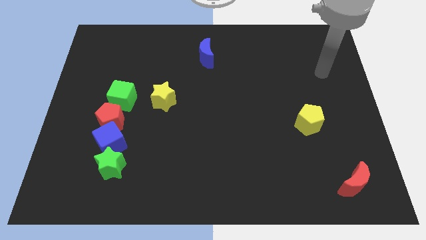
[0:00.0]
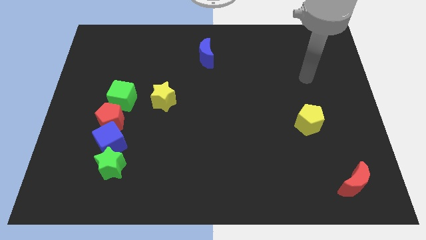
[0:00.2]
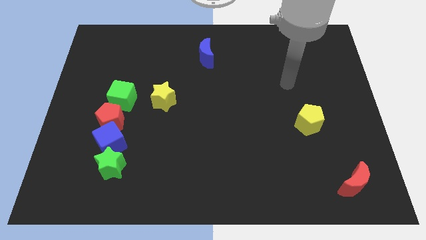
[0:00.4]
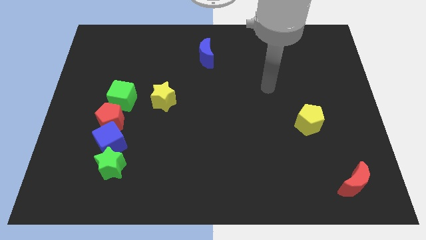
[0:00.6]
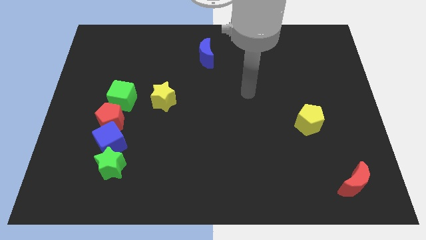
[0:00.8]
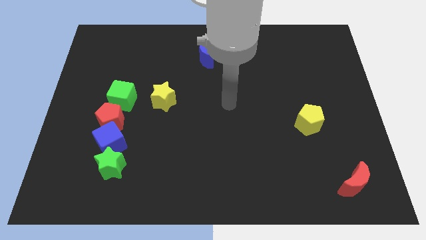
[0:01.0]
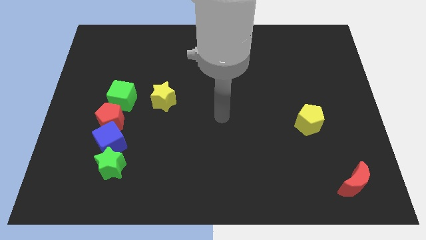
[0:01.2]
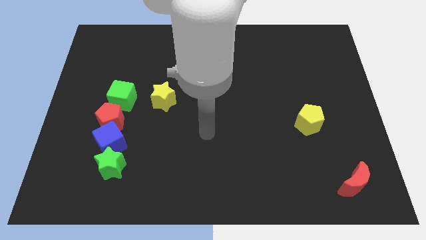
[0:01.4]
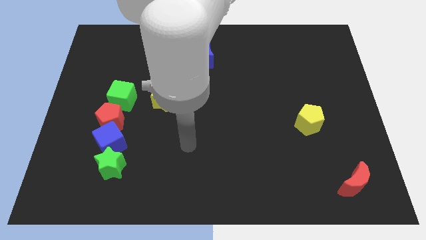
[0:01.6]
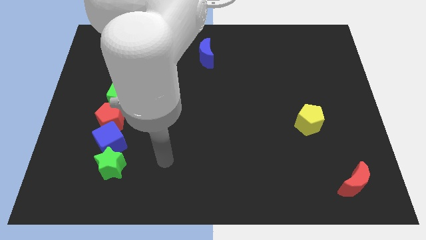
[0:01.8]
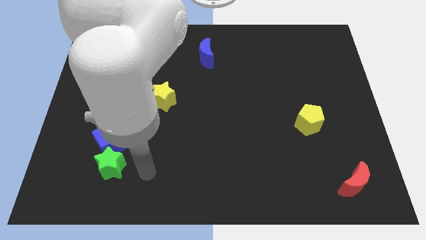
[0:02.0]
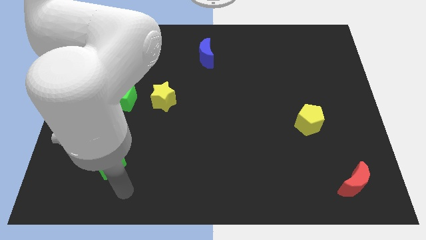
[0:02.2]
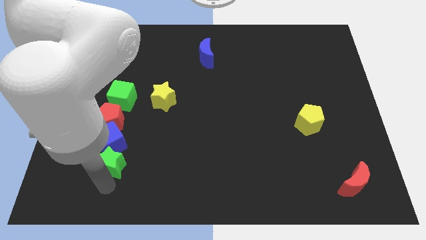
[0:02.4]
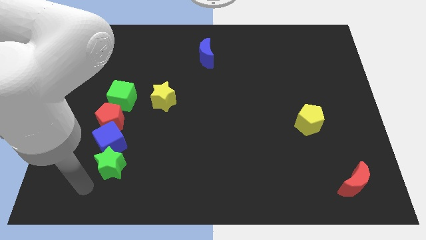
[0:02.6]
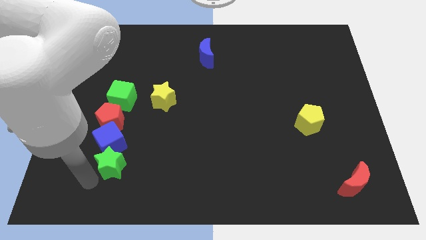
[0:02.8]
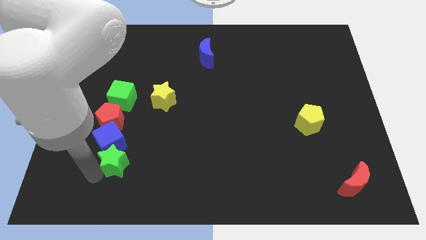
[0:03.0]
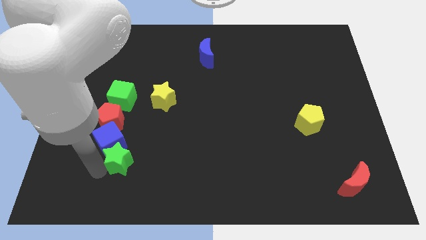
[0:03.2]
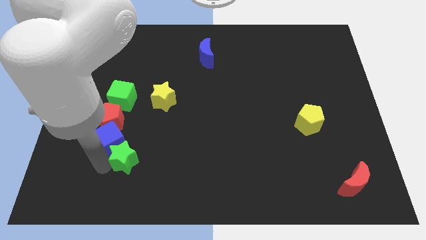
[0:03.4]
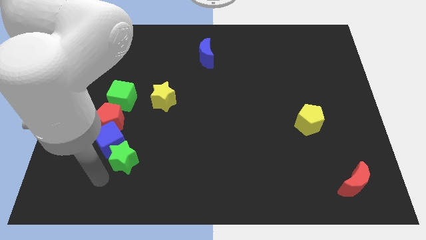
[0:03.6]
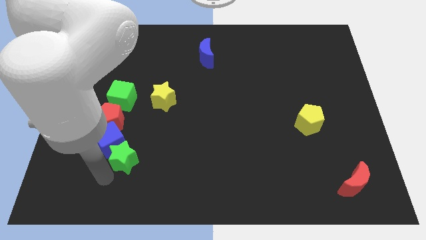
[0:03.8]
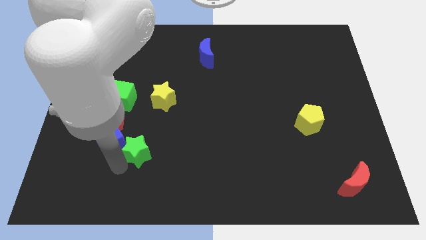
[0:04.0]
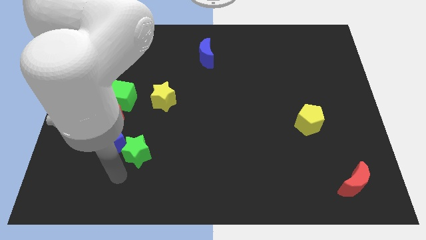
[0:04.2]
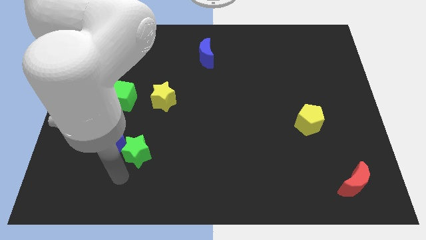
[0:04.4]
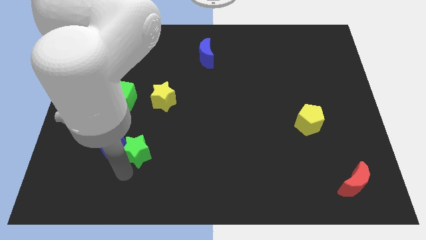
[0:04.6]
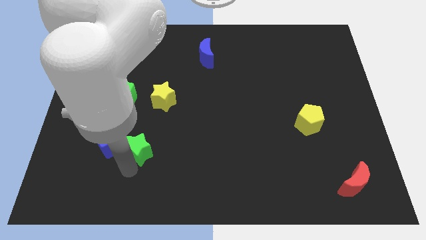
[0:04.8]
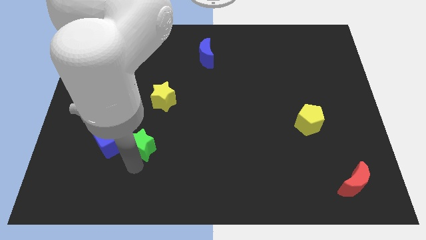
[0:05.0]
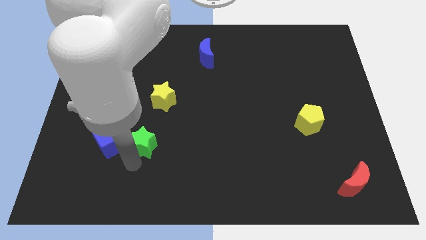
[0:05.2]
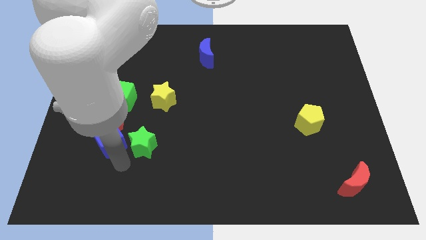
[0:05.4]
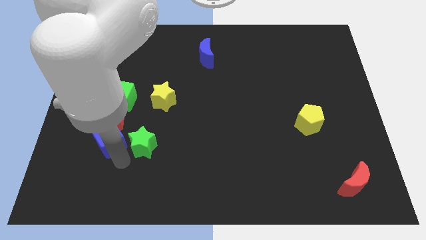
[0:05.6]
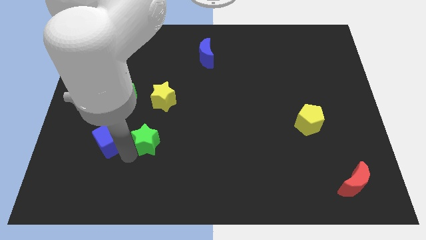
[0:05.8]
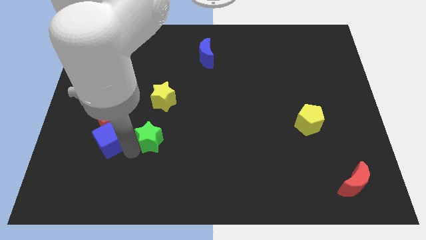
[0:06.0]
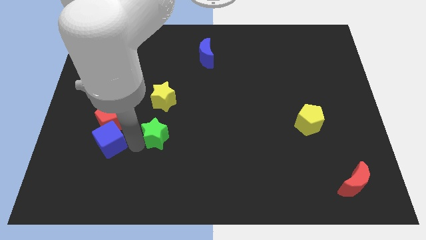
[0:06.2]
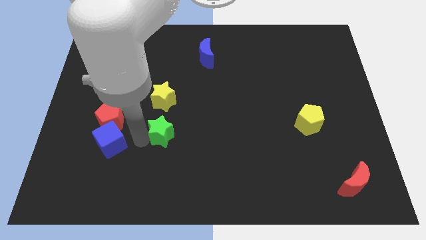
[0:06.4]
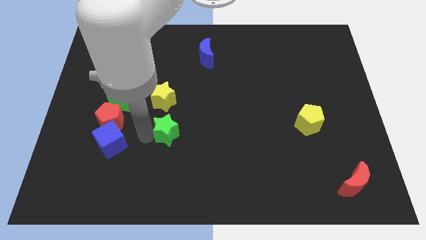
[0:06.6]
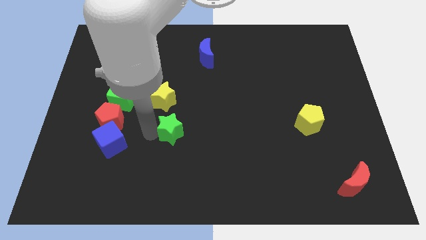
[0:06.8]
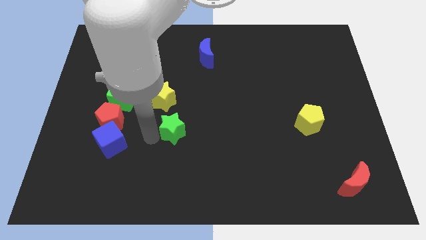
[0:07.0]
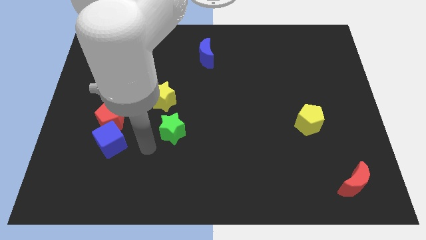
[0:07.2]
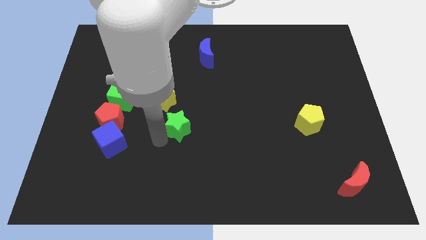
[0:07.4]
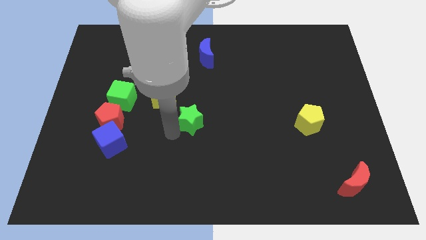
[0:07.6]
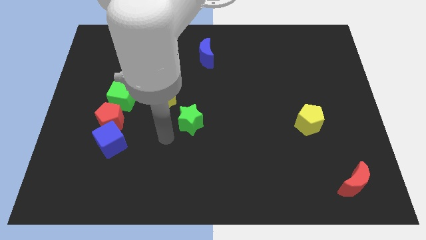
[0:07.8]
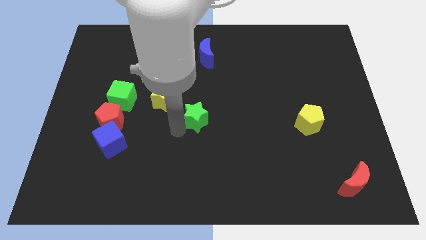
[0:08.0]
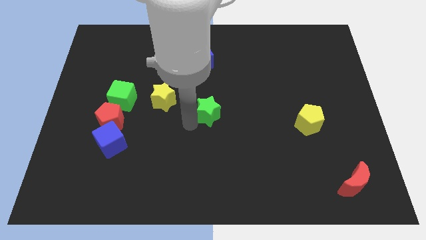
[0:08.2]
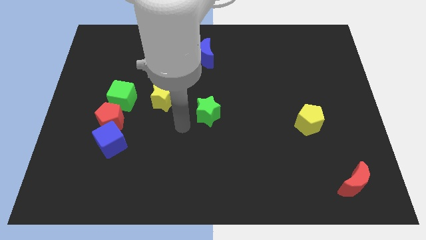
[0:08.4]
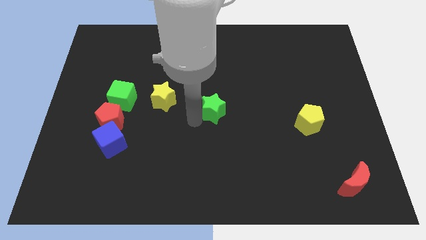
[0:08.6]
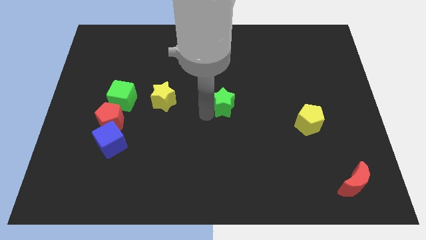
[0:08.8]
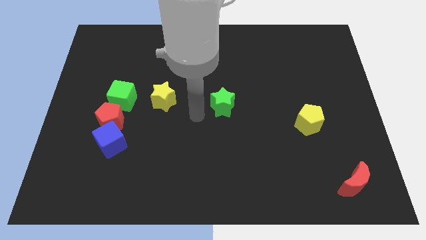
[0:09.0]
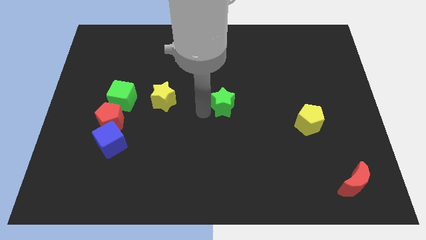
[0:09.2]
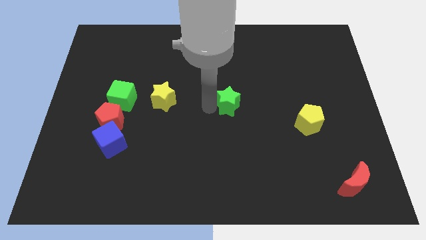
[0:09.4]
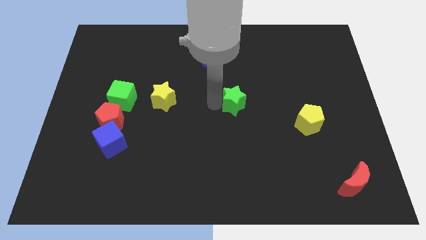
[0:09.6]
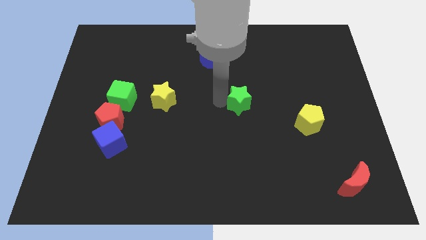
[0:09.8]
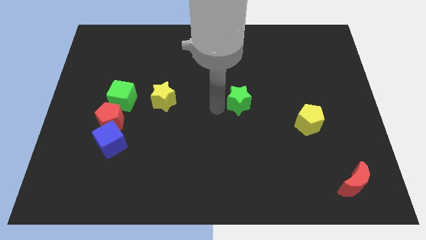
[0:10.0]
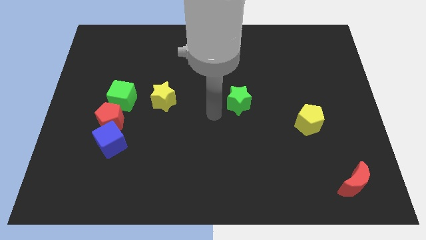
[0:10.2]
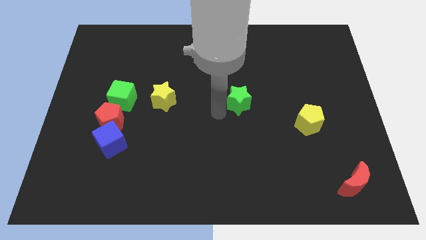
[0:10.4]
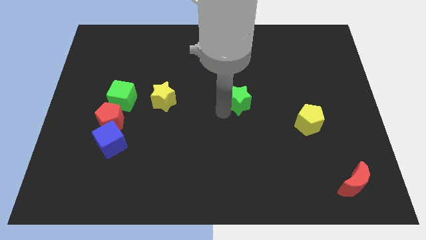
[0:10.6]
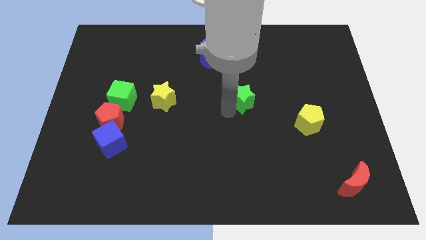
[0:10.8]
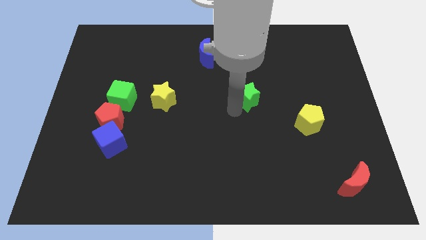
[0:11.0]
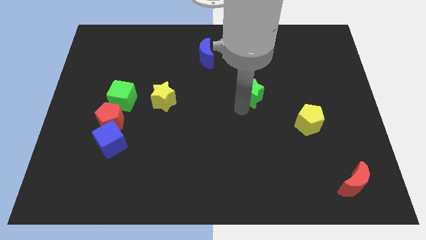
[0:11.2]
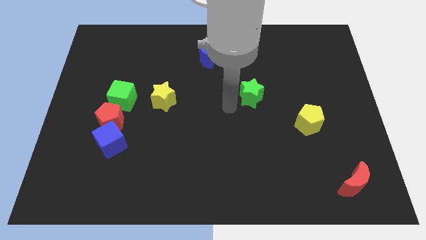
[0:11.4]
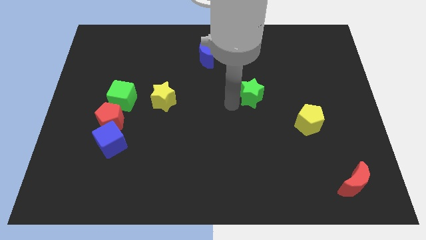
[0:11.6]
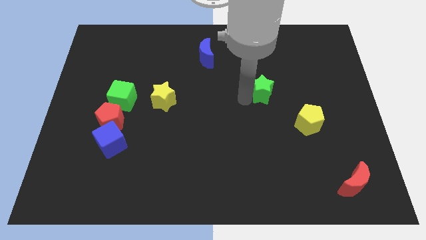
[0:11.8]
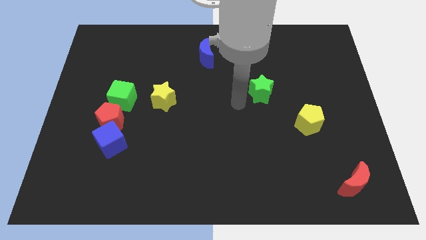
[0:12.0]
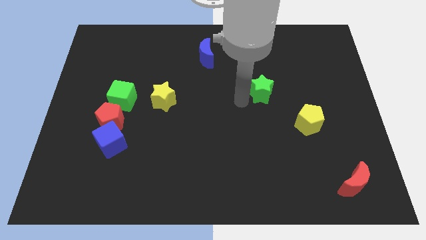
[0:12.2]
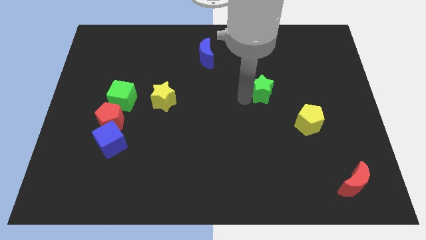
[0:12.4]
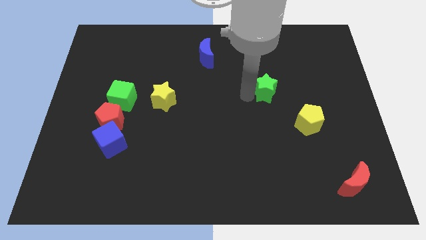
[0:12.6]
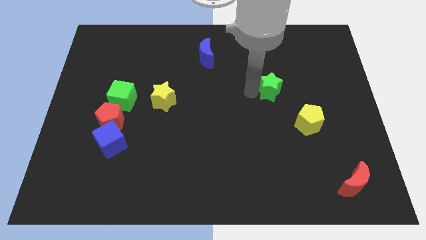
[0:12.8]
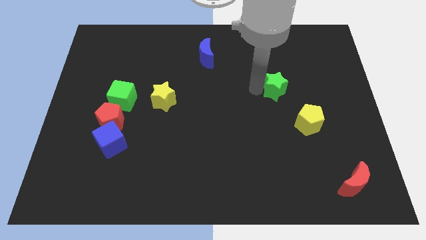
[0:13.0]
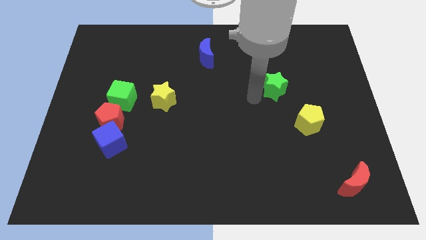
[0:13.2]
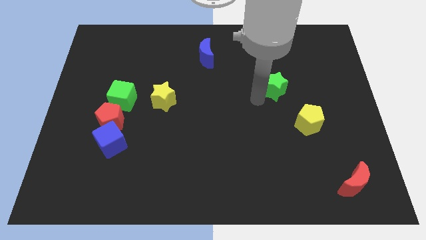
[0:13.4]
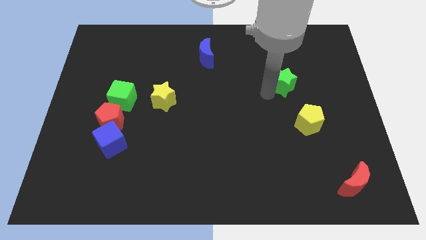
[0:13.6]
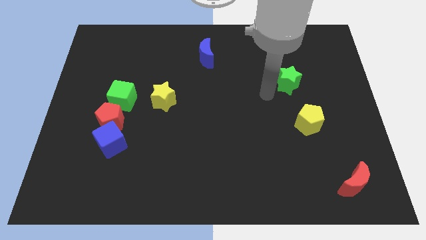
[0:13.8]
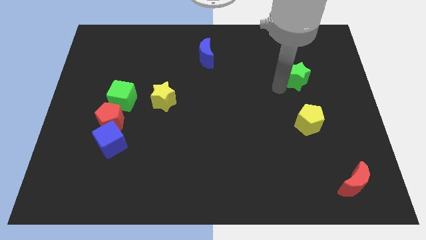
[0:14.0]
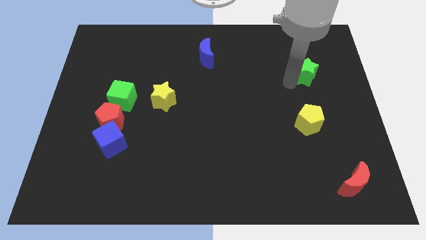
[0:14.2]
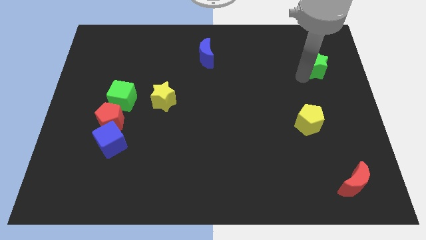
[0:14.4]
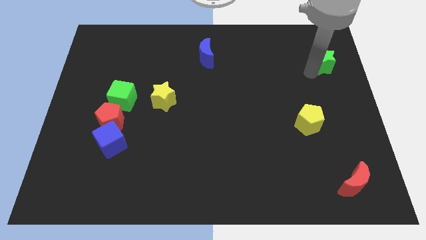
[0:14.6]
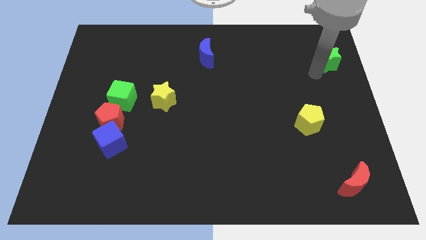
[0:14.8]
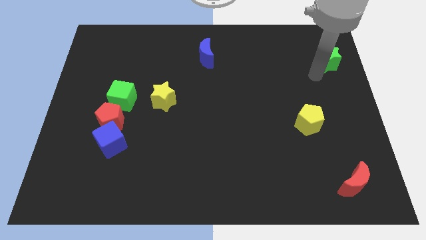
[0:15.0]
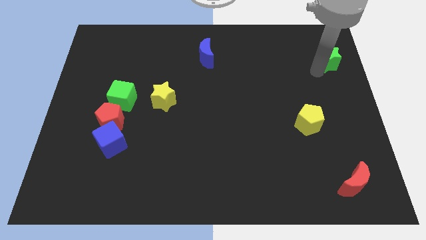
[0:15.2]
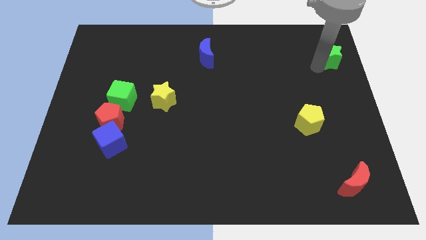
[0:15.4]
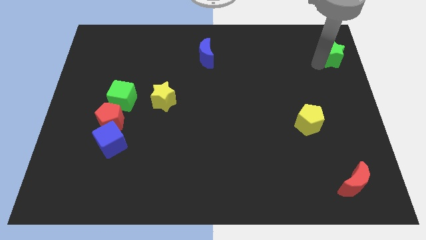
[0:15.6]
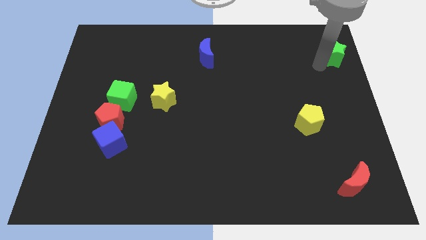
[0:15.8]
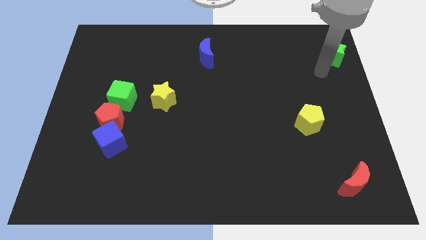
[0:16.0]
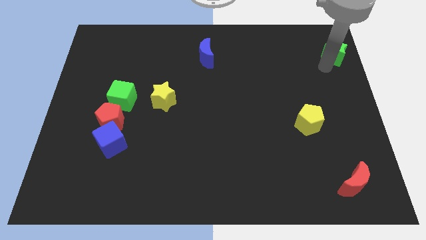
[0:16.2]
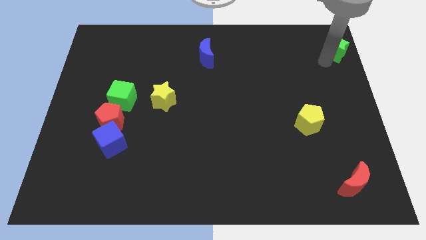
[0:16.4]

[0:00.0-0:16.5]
slide the green star to the upper right corner
